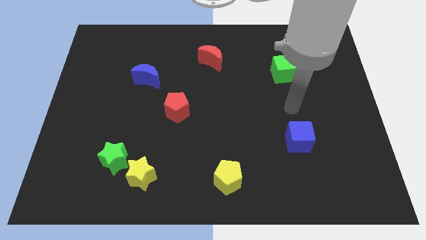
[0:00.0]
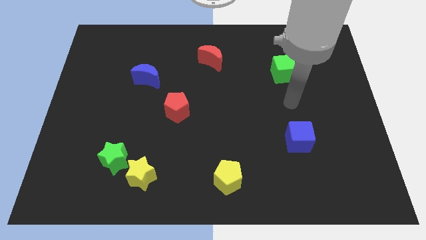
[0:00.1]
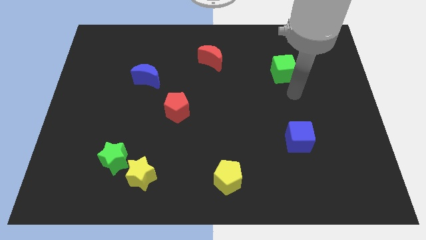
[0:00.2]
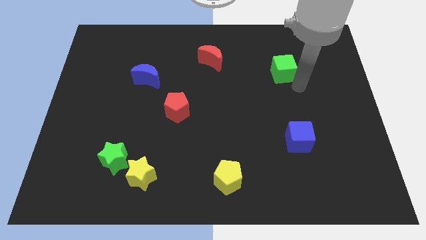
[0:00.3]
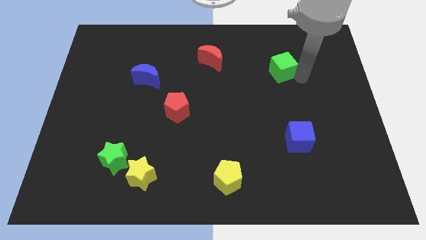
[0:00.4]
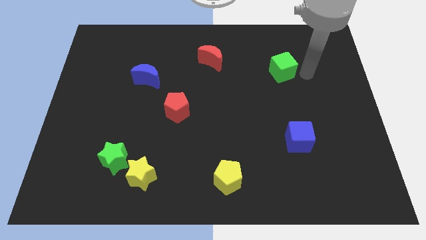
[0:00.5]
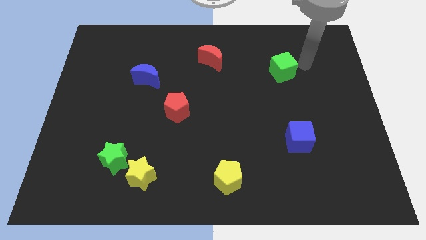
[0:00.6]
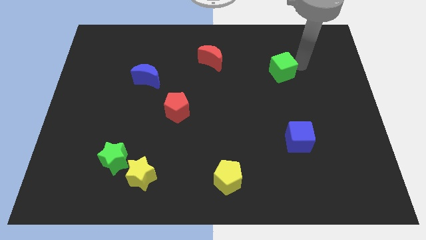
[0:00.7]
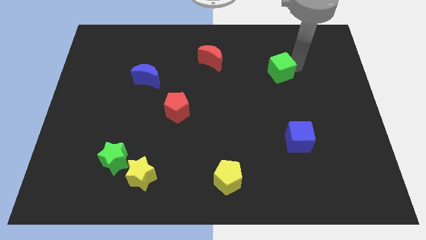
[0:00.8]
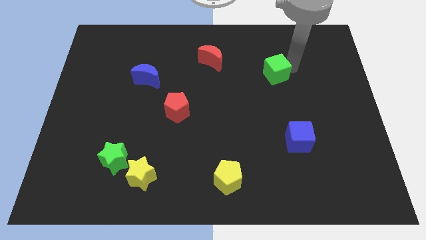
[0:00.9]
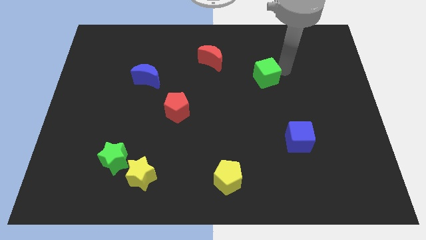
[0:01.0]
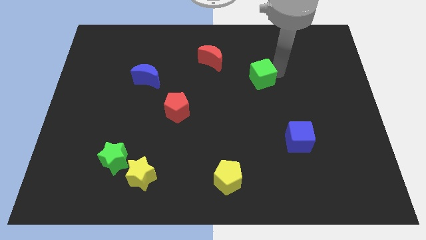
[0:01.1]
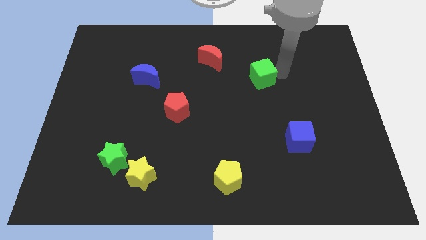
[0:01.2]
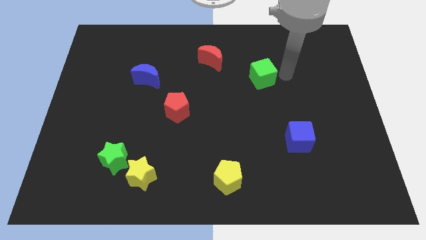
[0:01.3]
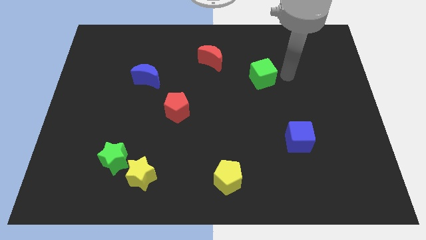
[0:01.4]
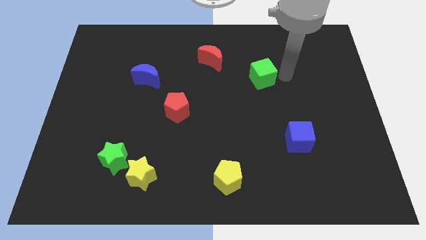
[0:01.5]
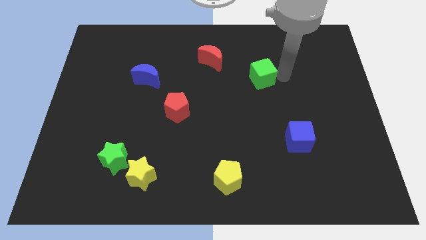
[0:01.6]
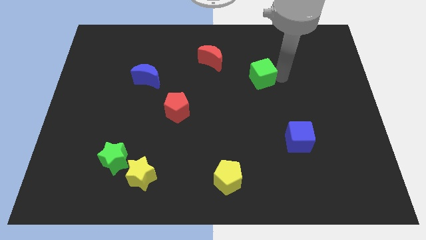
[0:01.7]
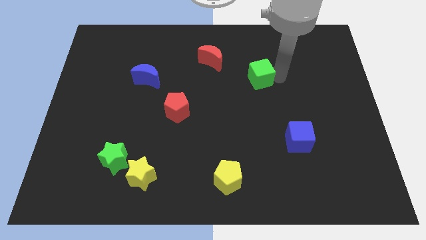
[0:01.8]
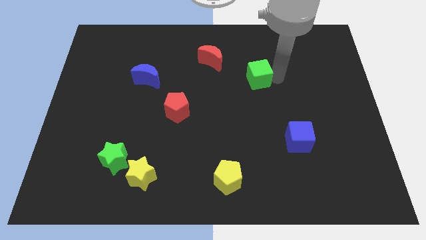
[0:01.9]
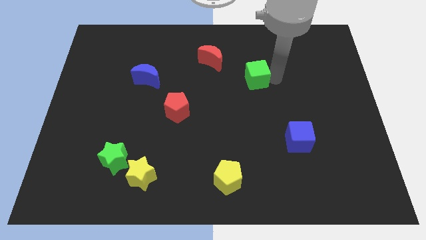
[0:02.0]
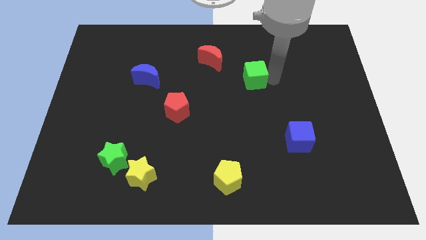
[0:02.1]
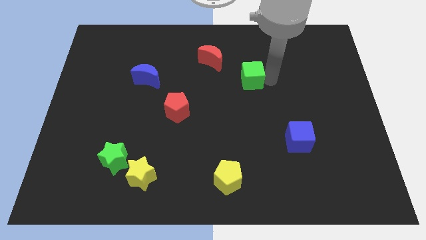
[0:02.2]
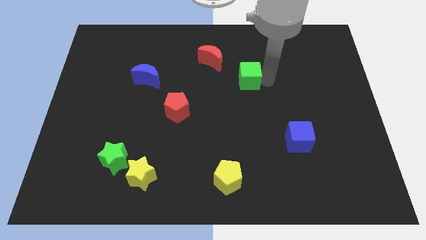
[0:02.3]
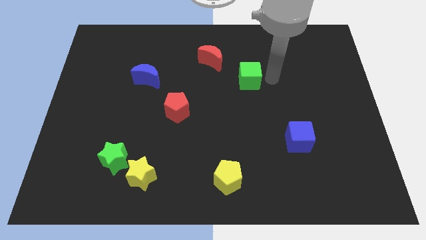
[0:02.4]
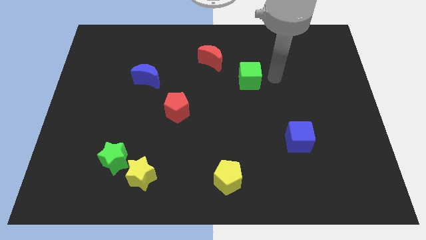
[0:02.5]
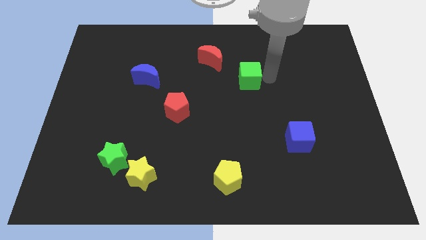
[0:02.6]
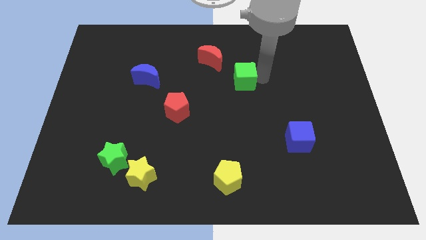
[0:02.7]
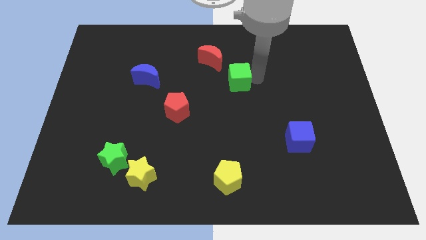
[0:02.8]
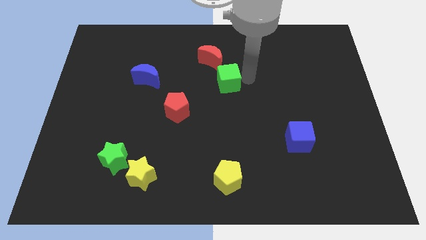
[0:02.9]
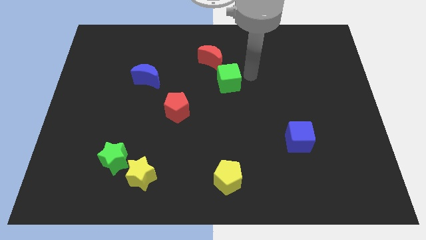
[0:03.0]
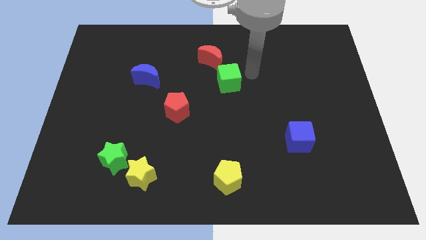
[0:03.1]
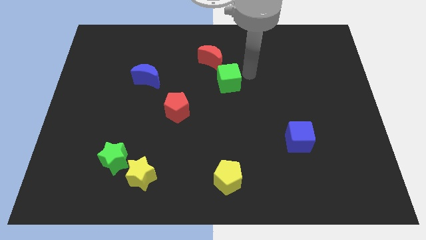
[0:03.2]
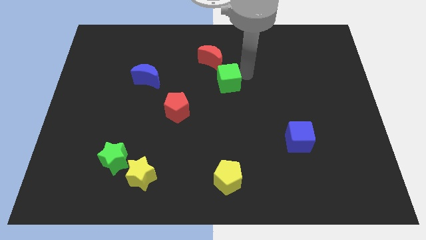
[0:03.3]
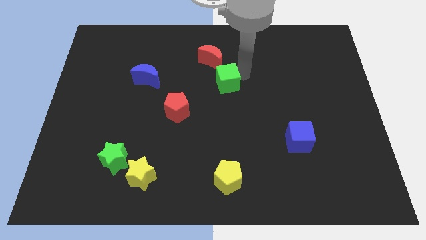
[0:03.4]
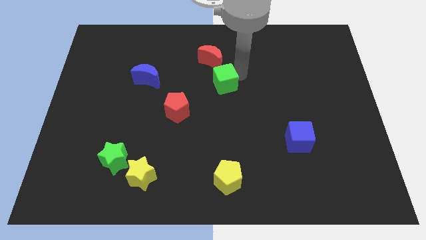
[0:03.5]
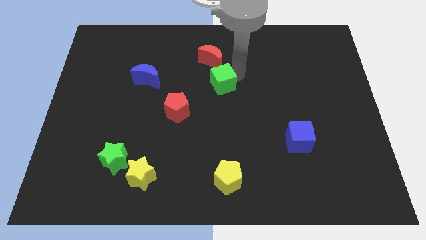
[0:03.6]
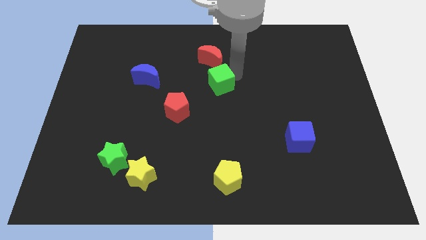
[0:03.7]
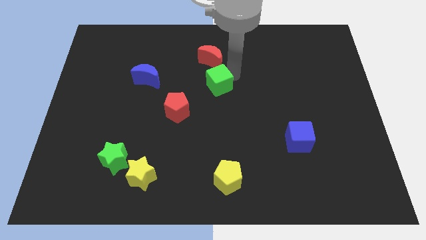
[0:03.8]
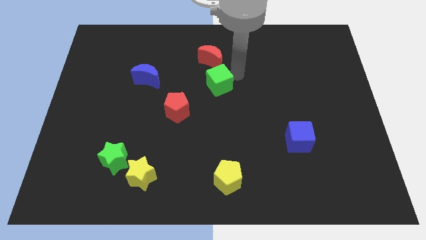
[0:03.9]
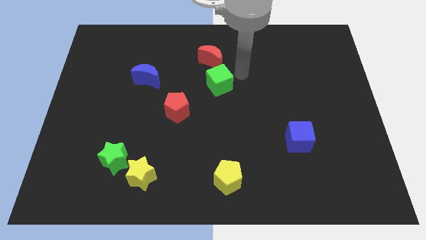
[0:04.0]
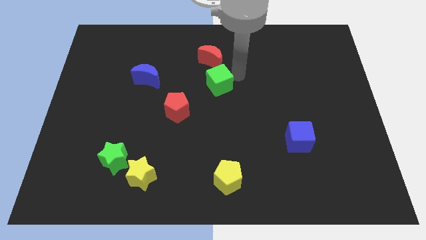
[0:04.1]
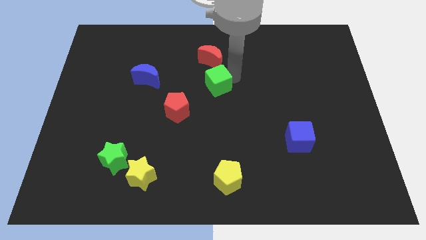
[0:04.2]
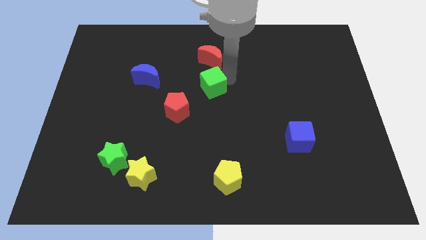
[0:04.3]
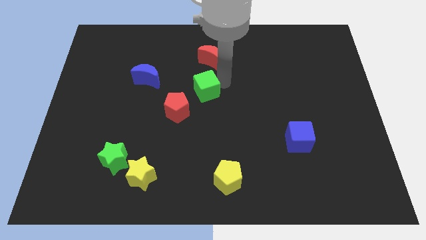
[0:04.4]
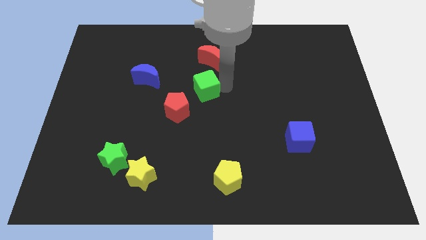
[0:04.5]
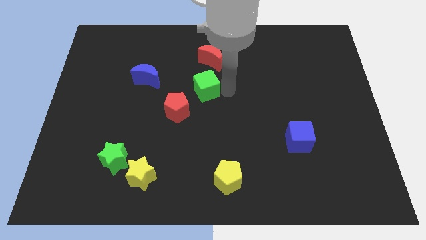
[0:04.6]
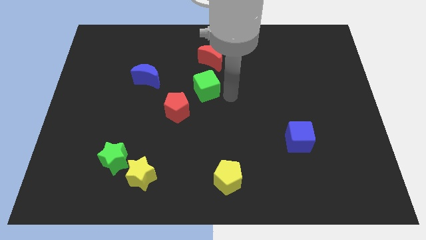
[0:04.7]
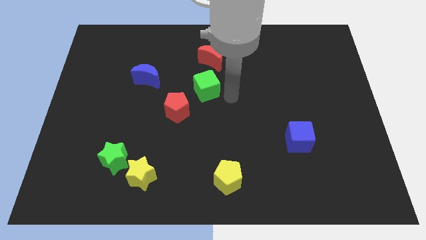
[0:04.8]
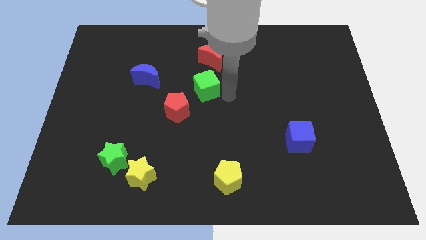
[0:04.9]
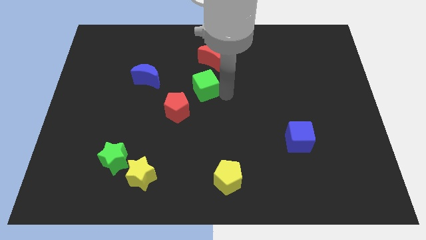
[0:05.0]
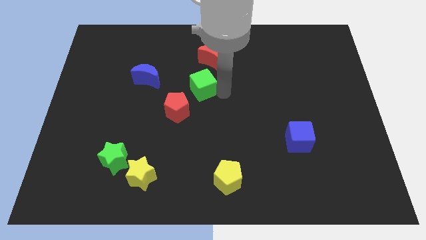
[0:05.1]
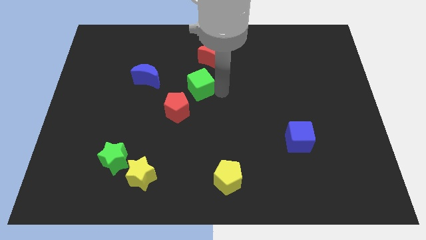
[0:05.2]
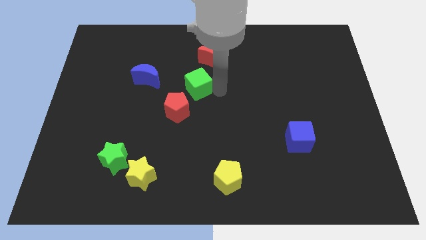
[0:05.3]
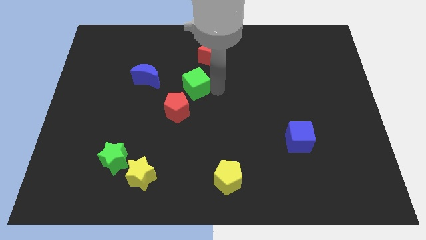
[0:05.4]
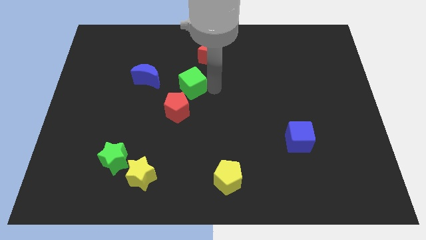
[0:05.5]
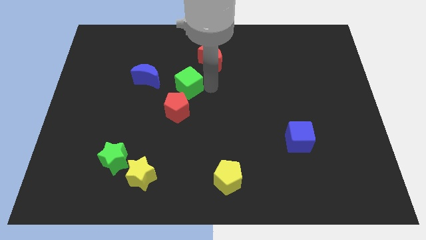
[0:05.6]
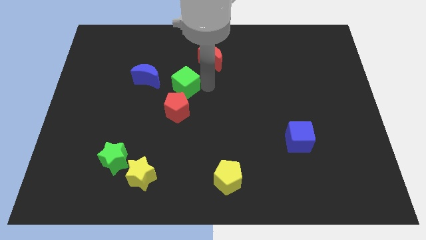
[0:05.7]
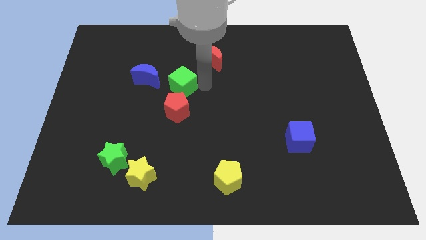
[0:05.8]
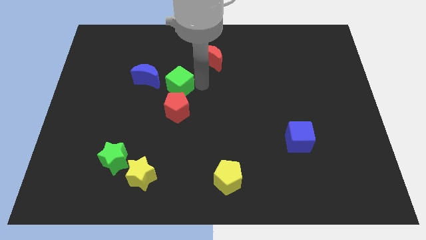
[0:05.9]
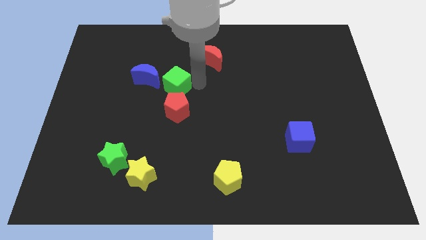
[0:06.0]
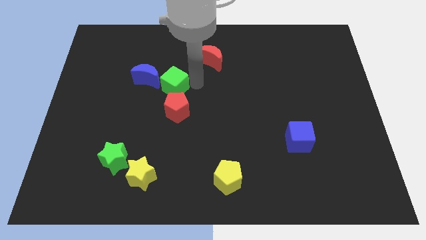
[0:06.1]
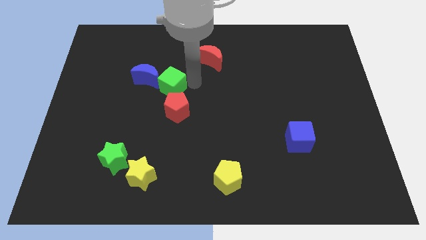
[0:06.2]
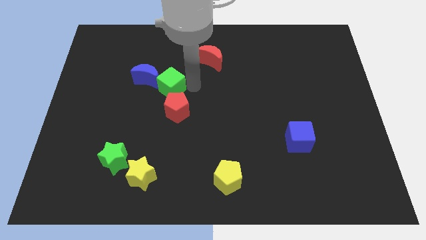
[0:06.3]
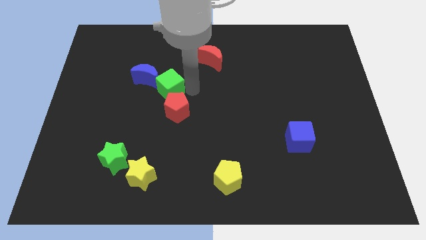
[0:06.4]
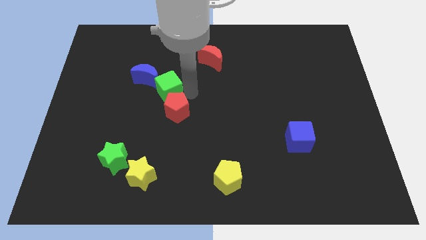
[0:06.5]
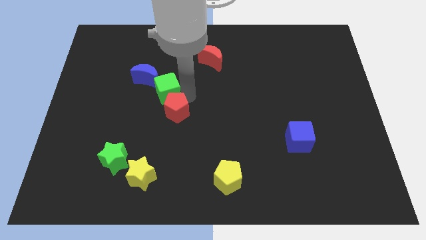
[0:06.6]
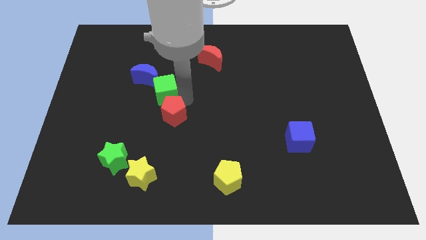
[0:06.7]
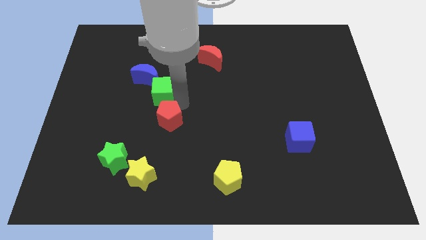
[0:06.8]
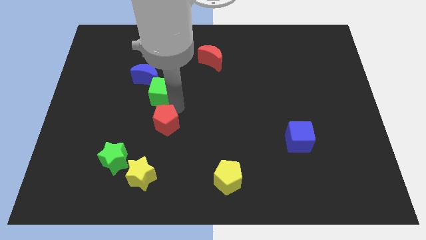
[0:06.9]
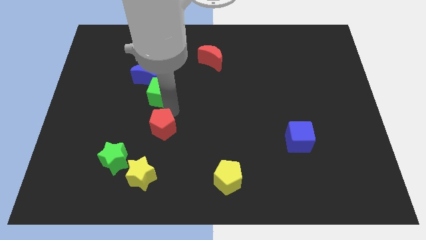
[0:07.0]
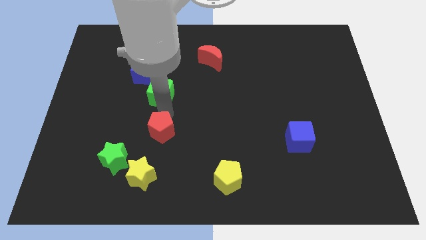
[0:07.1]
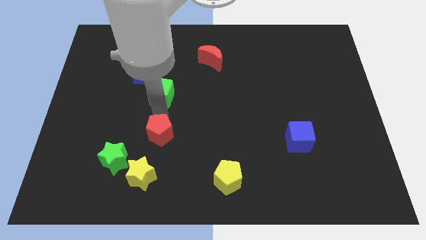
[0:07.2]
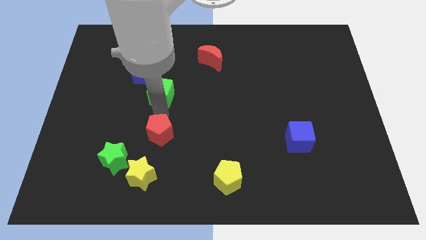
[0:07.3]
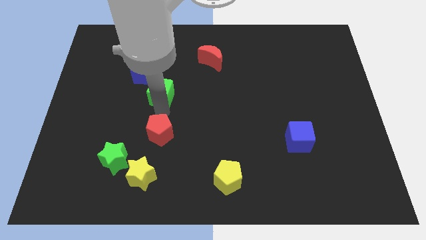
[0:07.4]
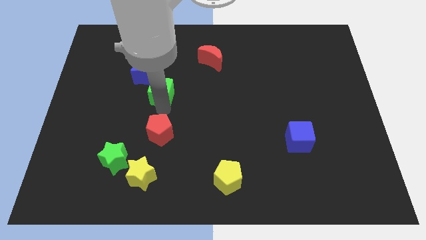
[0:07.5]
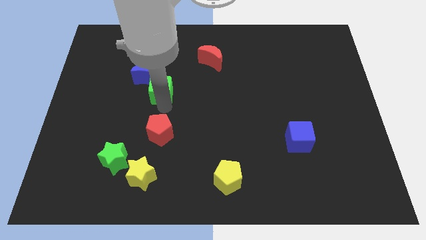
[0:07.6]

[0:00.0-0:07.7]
put the green cube next to the blue moon
